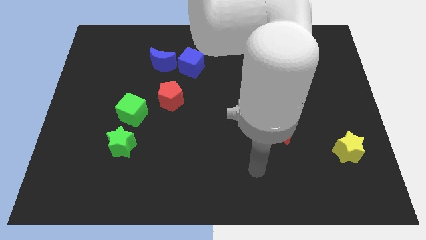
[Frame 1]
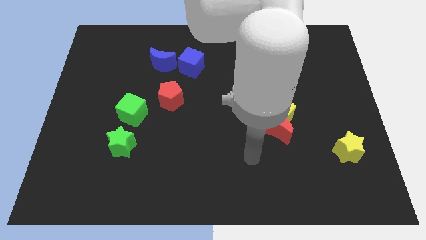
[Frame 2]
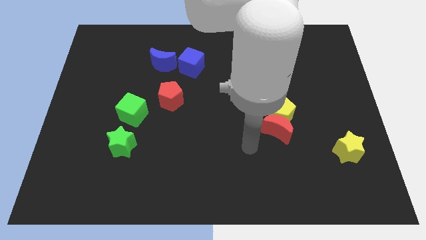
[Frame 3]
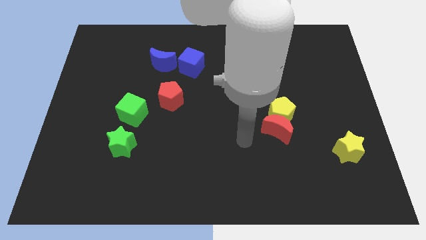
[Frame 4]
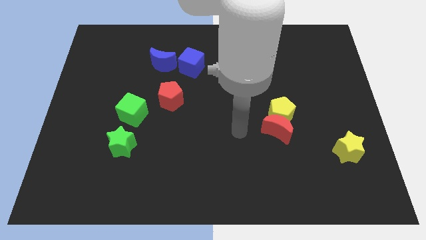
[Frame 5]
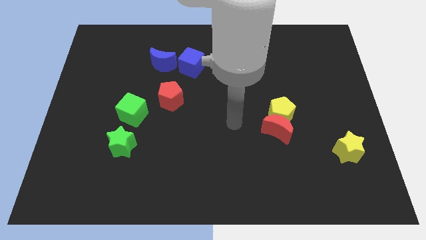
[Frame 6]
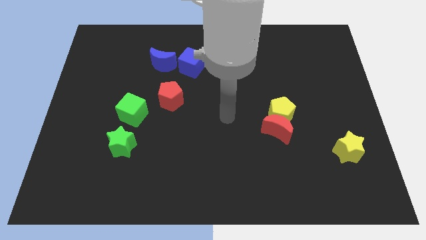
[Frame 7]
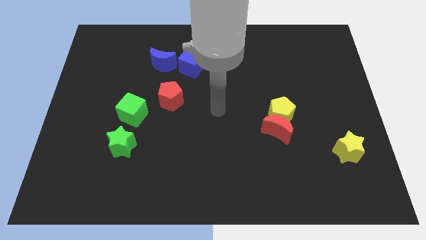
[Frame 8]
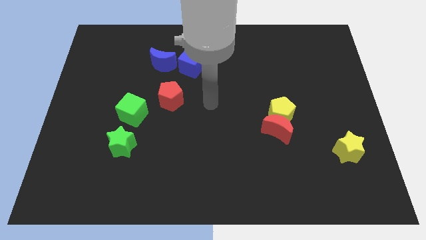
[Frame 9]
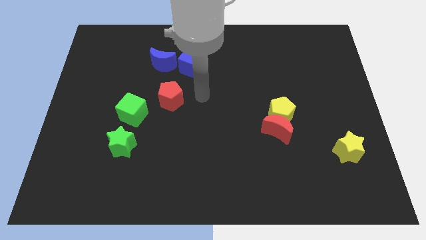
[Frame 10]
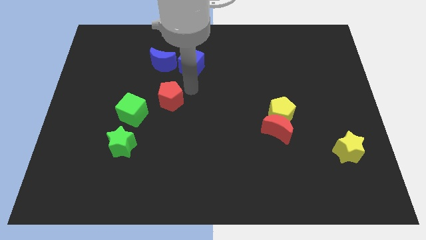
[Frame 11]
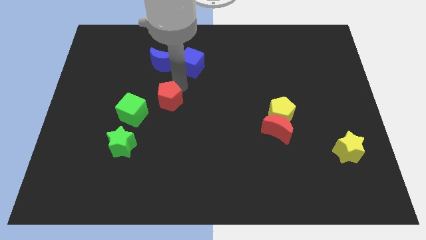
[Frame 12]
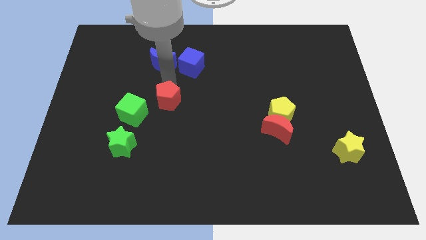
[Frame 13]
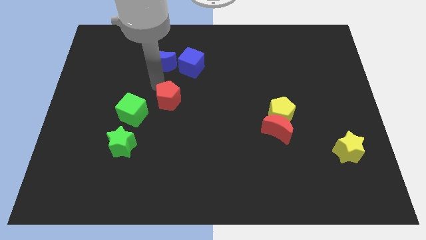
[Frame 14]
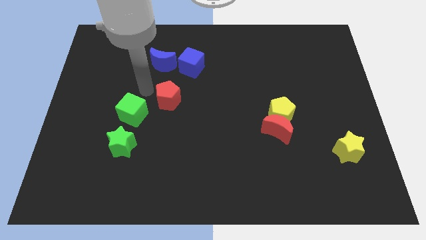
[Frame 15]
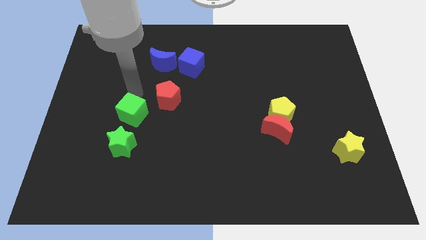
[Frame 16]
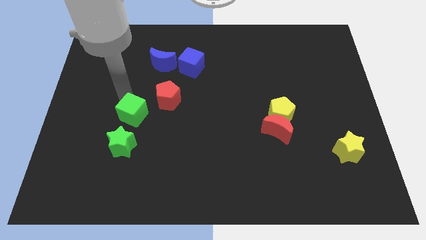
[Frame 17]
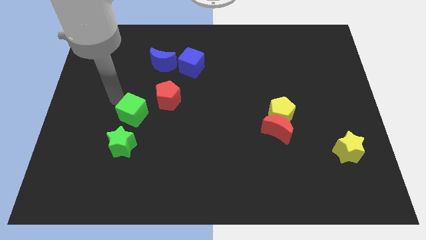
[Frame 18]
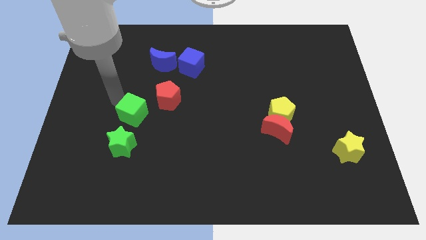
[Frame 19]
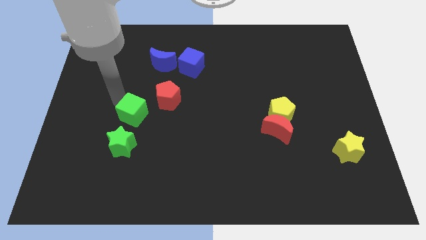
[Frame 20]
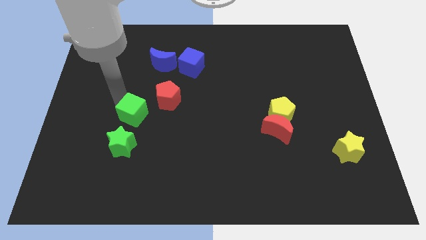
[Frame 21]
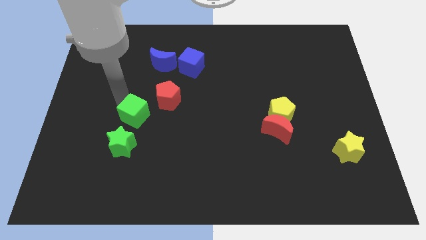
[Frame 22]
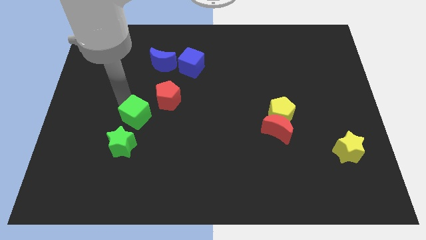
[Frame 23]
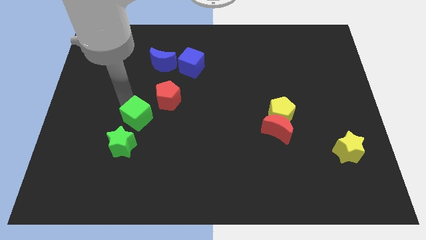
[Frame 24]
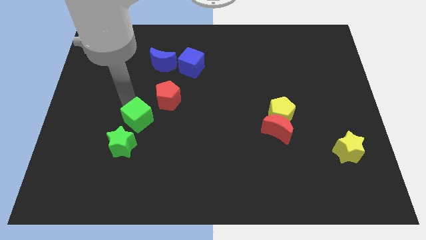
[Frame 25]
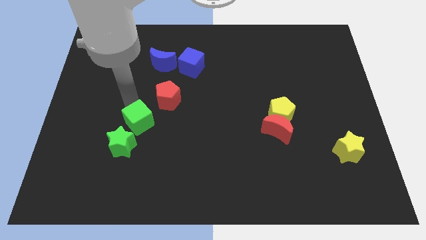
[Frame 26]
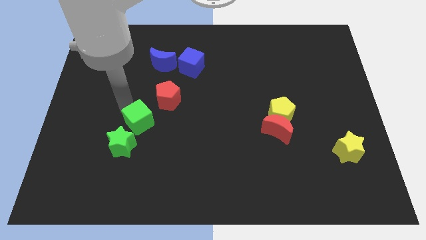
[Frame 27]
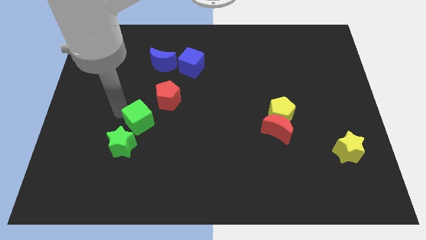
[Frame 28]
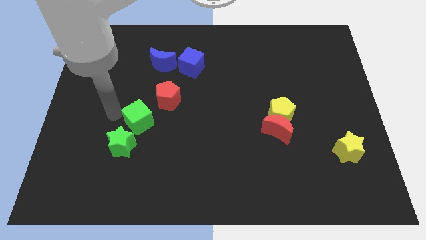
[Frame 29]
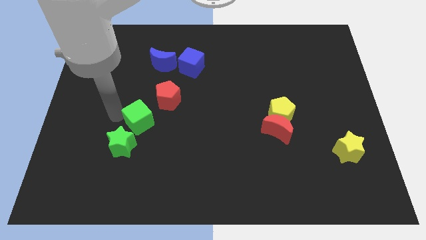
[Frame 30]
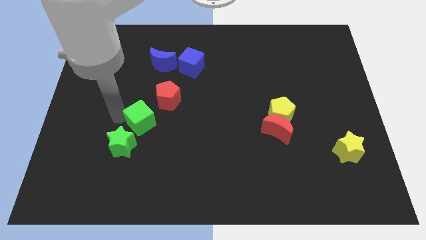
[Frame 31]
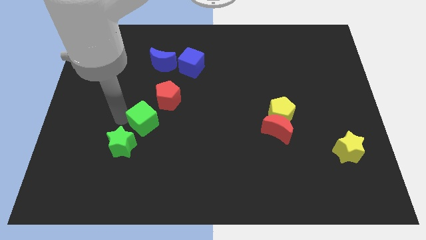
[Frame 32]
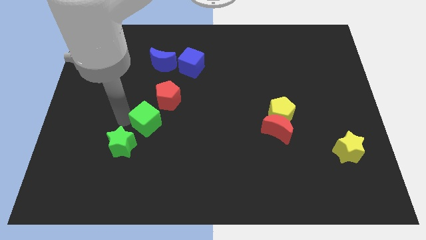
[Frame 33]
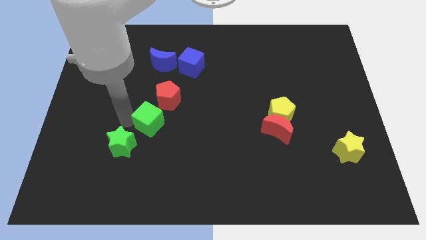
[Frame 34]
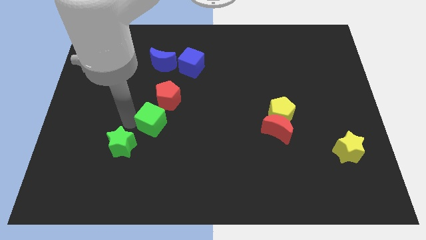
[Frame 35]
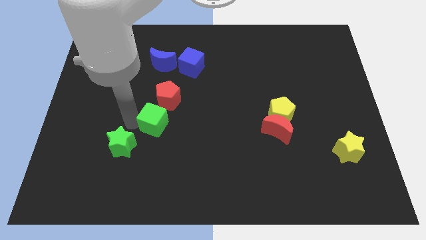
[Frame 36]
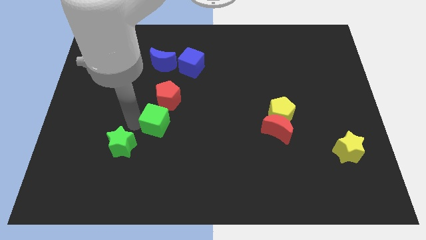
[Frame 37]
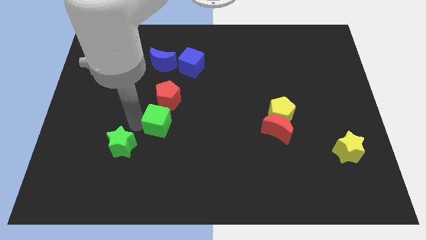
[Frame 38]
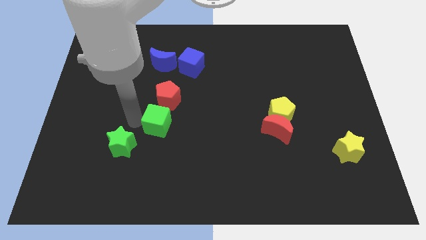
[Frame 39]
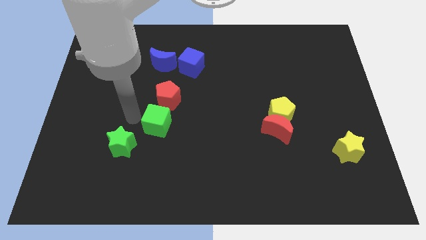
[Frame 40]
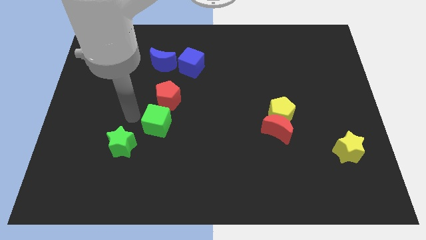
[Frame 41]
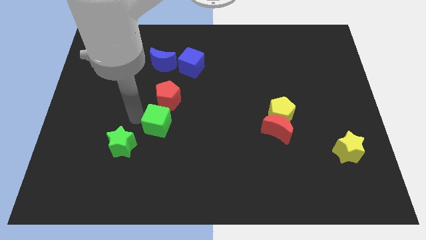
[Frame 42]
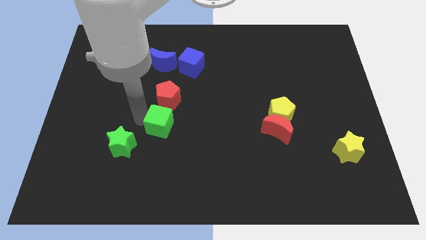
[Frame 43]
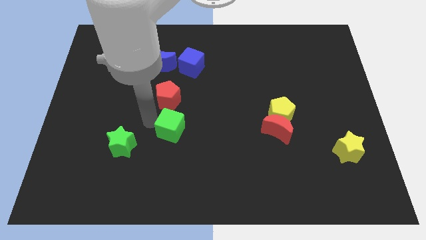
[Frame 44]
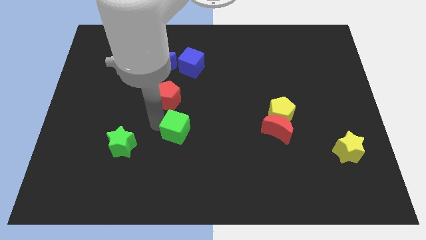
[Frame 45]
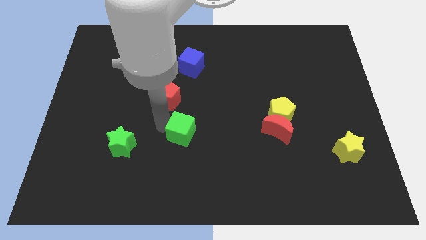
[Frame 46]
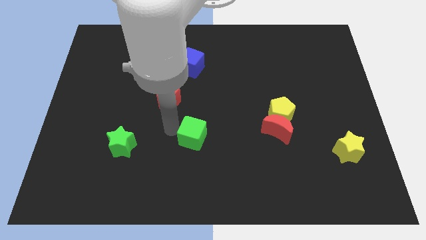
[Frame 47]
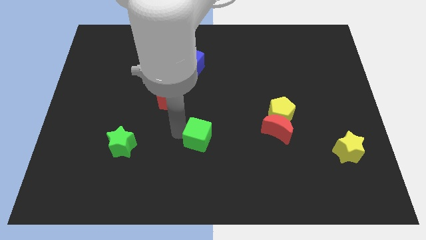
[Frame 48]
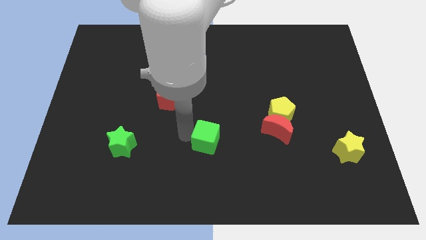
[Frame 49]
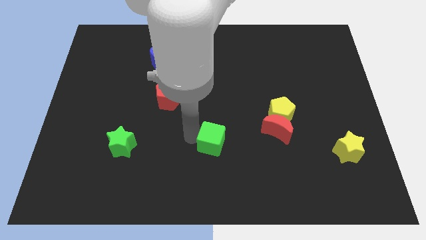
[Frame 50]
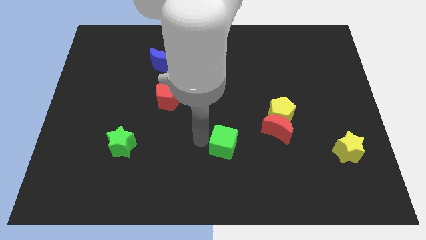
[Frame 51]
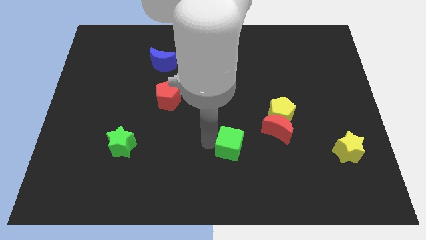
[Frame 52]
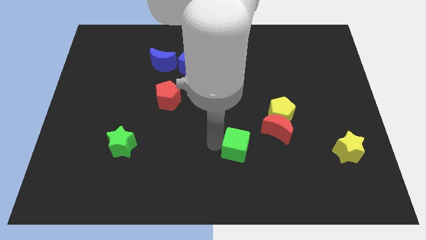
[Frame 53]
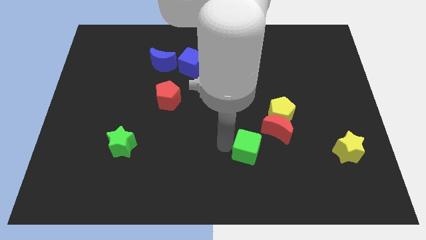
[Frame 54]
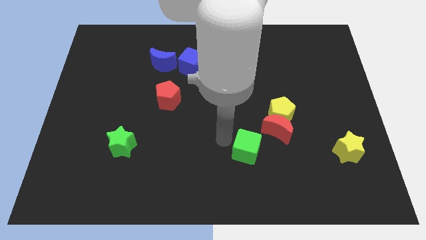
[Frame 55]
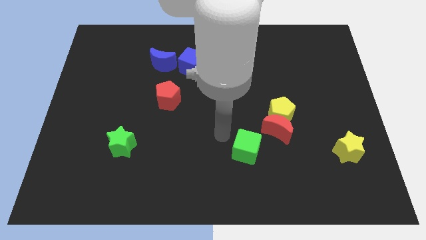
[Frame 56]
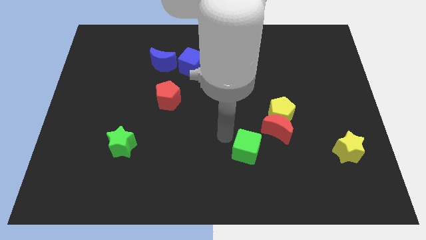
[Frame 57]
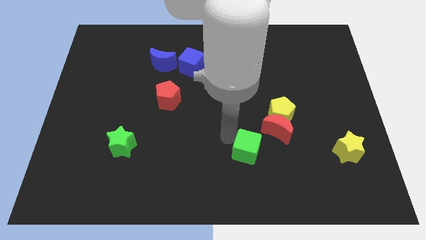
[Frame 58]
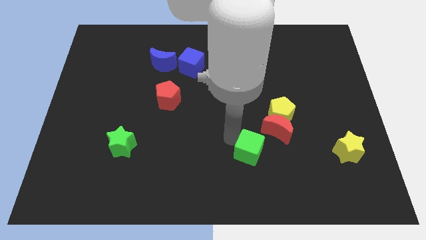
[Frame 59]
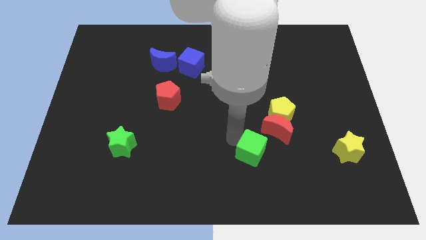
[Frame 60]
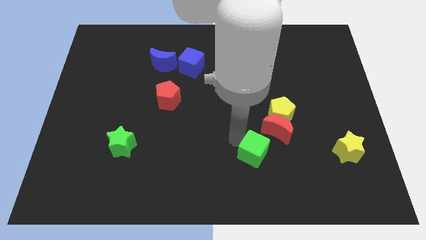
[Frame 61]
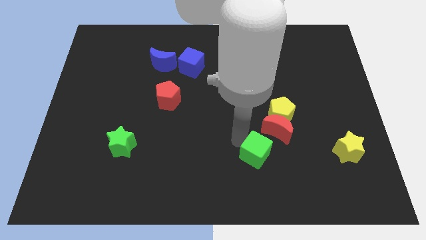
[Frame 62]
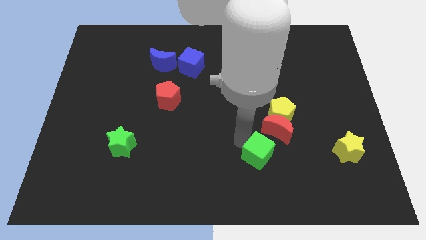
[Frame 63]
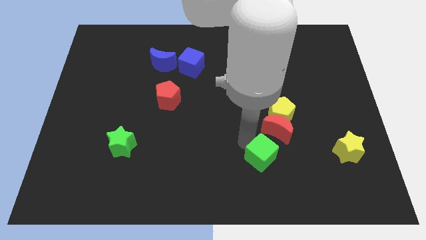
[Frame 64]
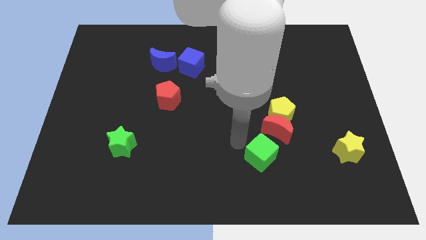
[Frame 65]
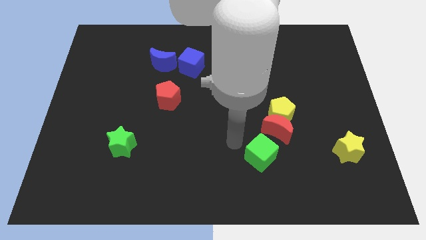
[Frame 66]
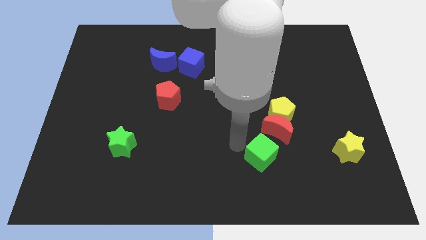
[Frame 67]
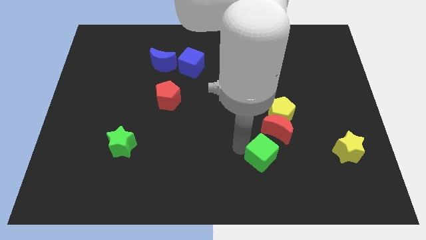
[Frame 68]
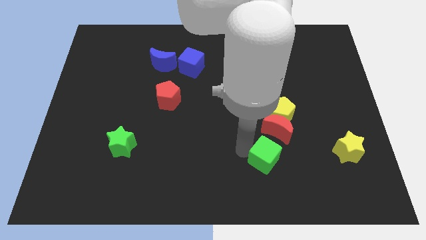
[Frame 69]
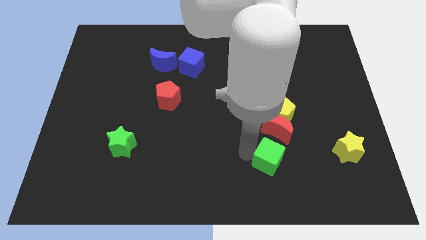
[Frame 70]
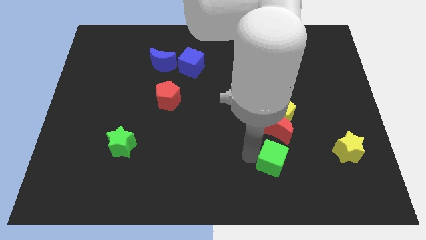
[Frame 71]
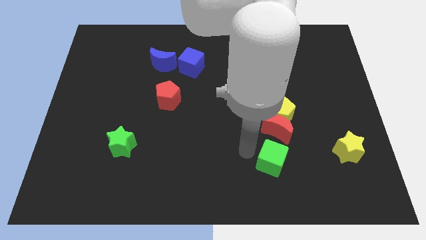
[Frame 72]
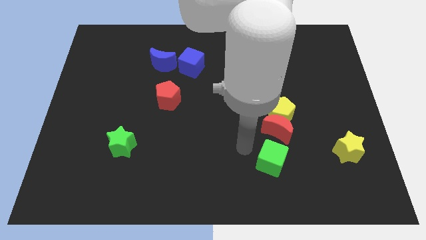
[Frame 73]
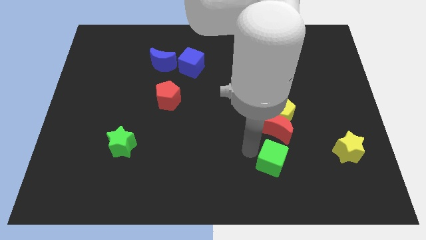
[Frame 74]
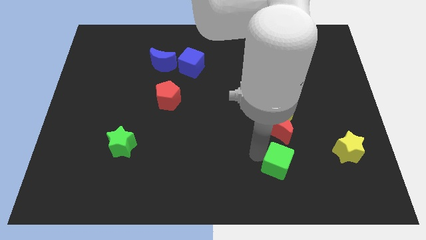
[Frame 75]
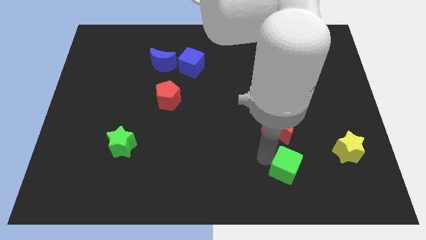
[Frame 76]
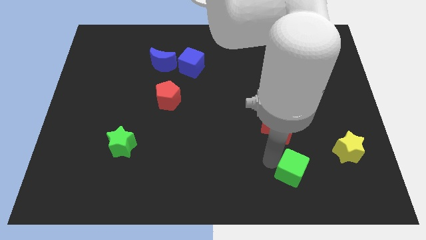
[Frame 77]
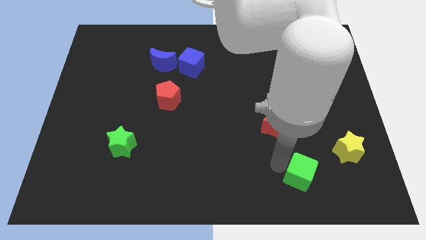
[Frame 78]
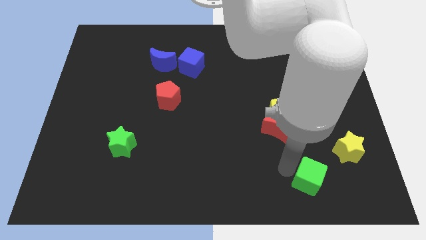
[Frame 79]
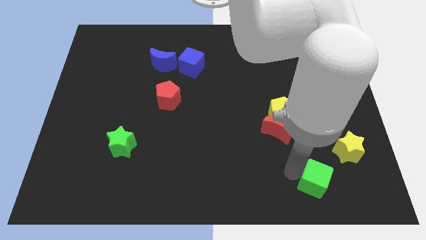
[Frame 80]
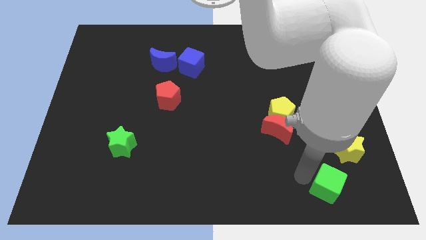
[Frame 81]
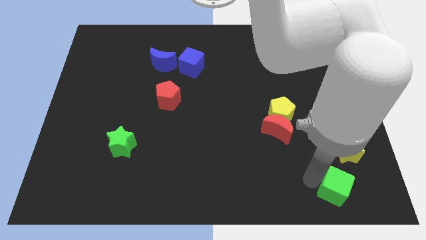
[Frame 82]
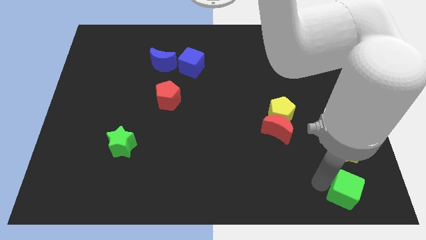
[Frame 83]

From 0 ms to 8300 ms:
put the green cube to the bottom right
